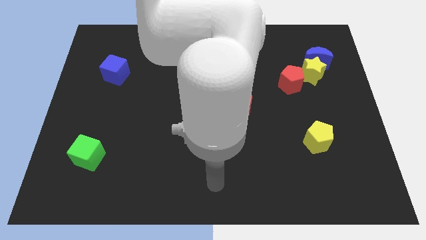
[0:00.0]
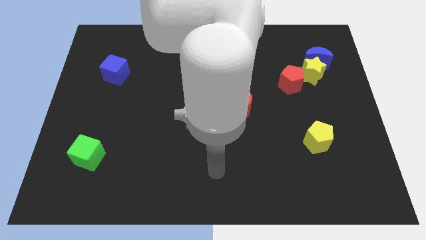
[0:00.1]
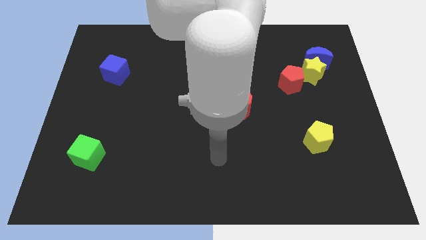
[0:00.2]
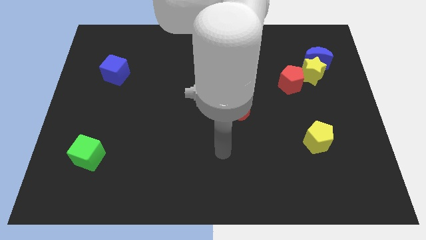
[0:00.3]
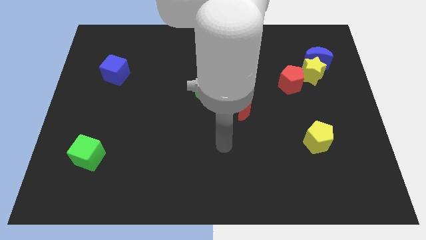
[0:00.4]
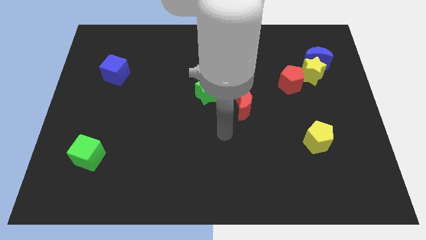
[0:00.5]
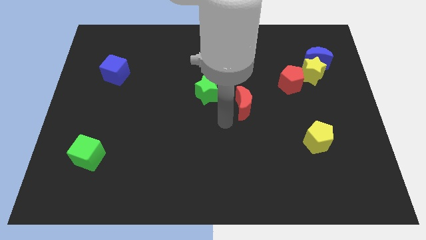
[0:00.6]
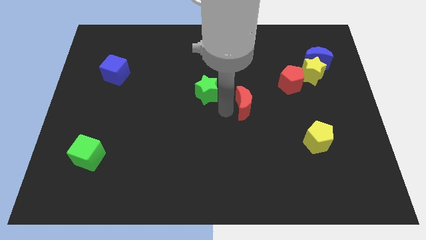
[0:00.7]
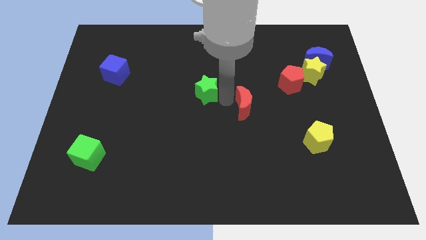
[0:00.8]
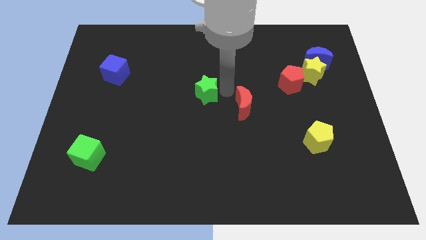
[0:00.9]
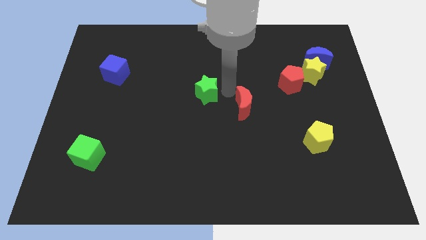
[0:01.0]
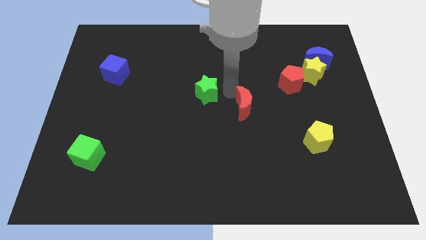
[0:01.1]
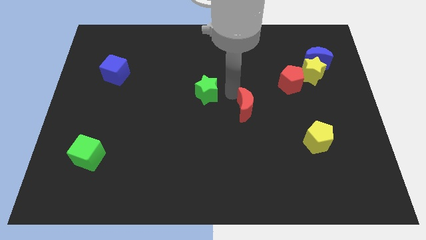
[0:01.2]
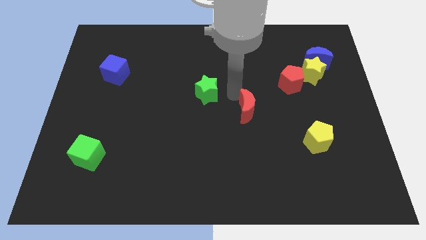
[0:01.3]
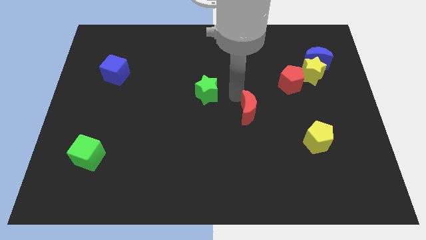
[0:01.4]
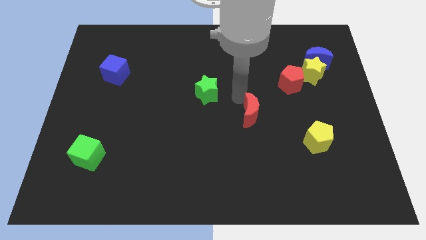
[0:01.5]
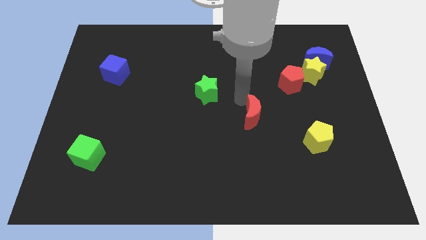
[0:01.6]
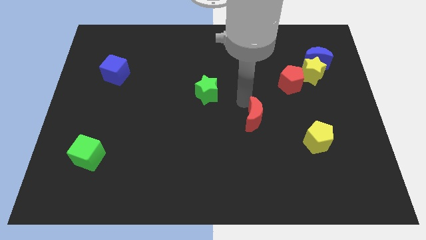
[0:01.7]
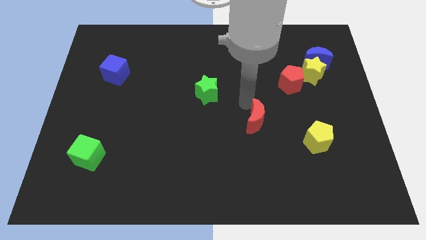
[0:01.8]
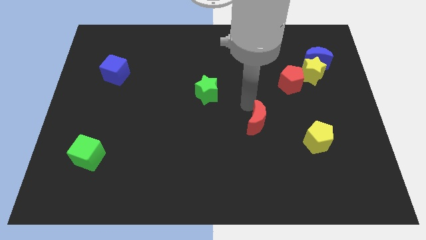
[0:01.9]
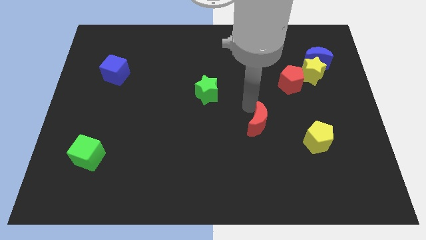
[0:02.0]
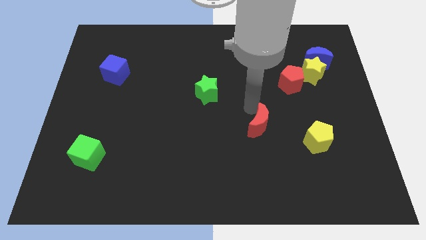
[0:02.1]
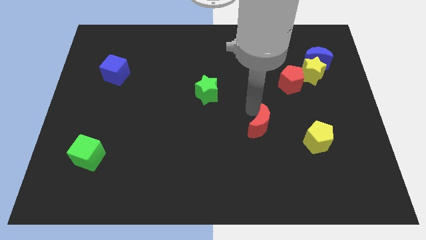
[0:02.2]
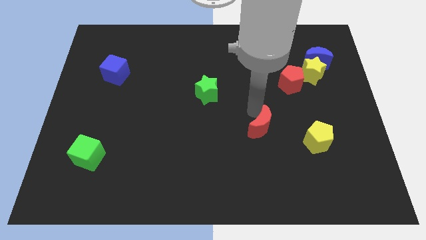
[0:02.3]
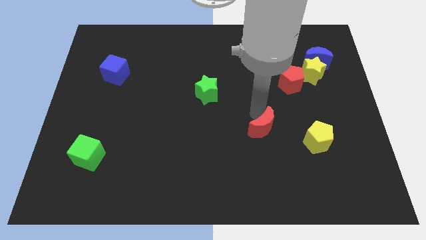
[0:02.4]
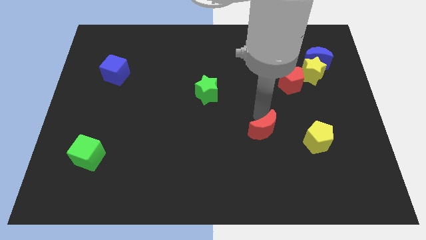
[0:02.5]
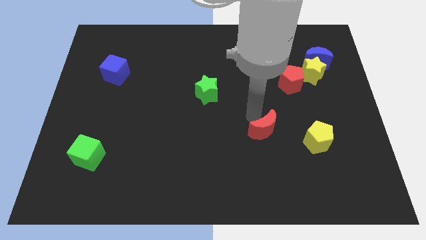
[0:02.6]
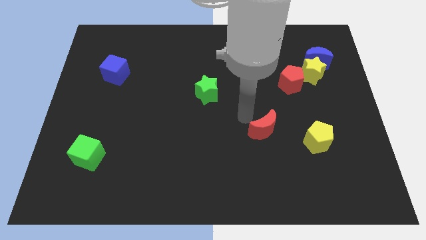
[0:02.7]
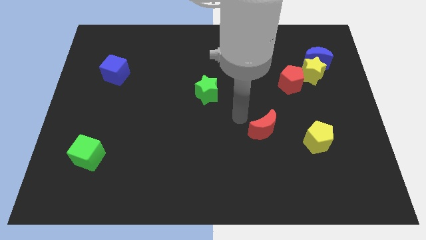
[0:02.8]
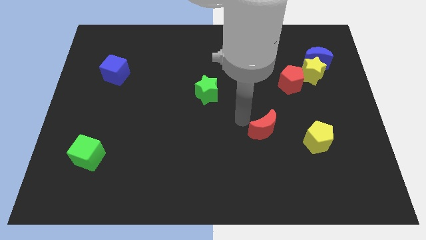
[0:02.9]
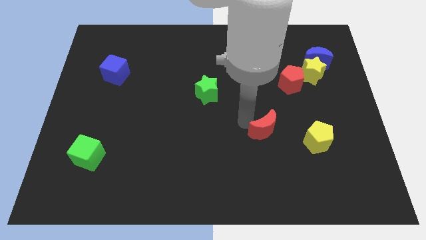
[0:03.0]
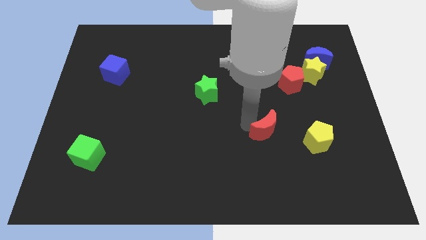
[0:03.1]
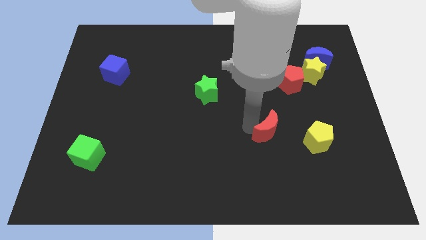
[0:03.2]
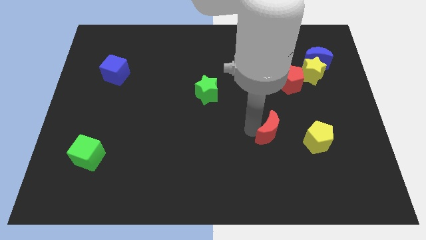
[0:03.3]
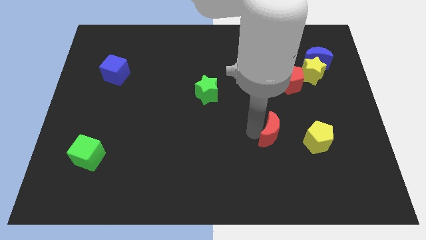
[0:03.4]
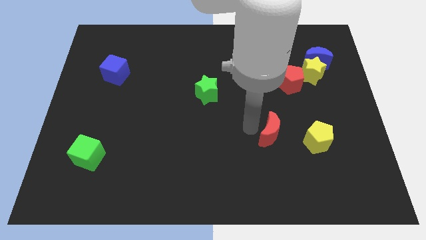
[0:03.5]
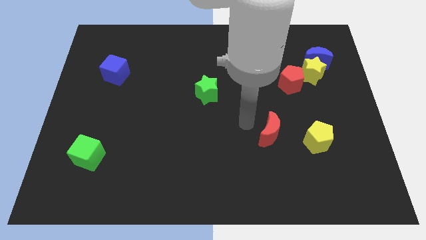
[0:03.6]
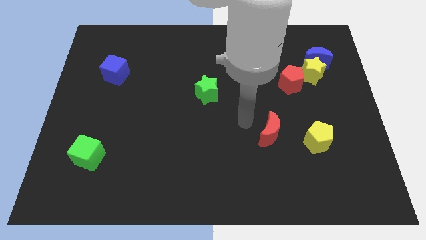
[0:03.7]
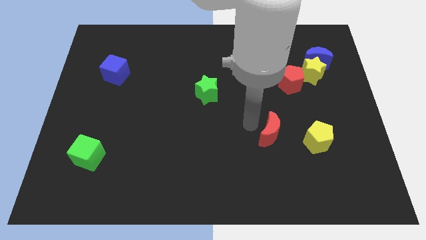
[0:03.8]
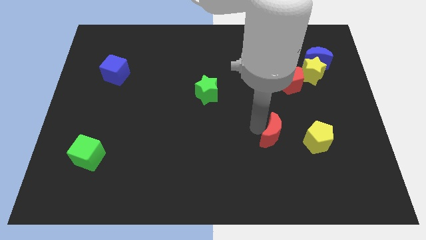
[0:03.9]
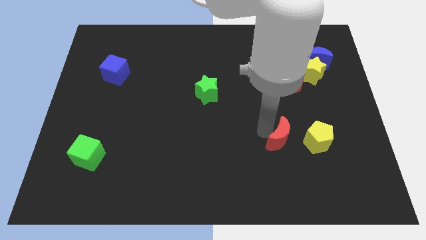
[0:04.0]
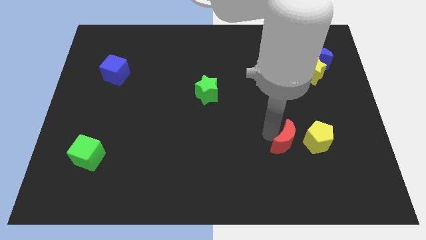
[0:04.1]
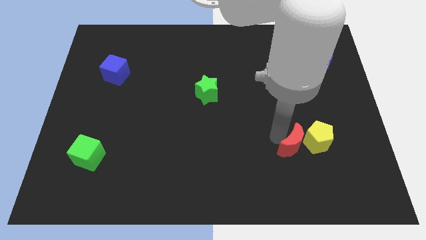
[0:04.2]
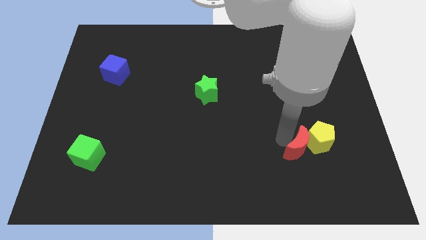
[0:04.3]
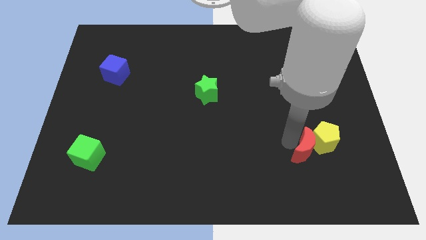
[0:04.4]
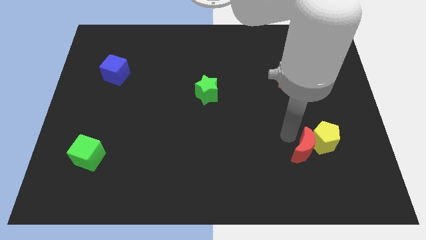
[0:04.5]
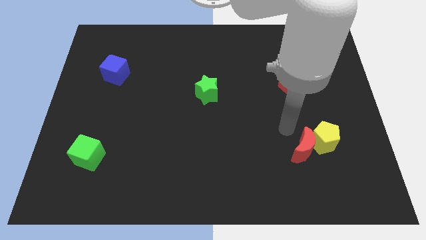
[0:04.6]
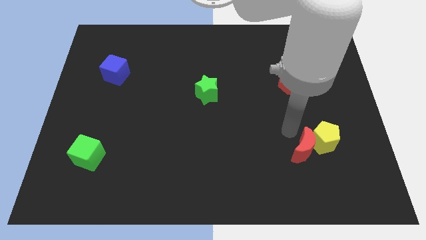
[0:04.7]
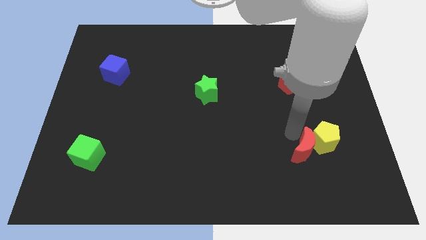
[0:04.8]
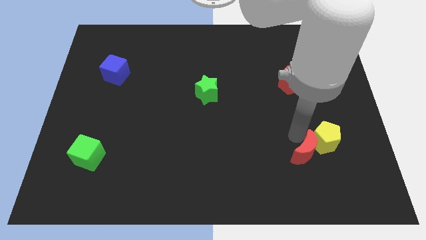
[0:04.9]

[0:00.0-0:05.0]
slide the red moon to the bottom of the yellow pentagon

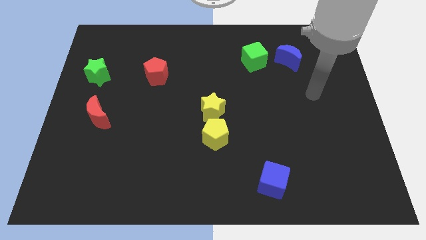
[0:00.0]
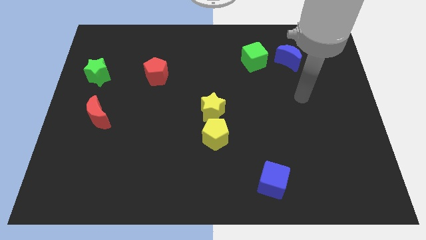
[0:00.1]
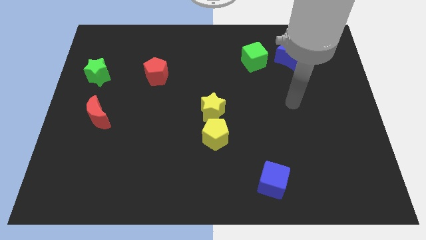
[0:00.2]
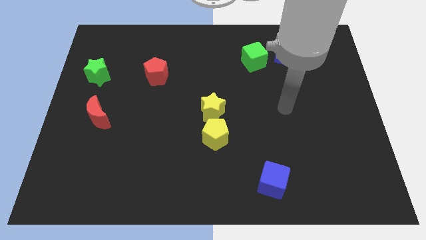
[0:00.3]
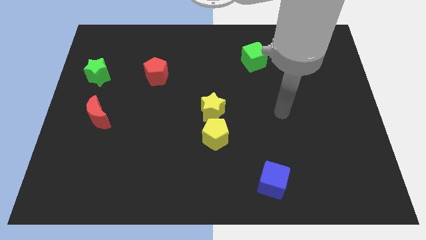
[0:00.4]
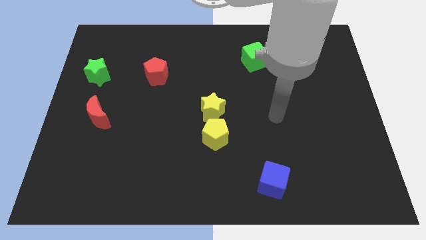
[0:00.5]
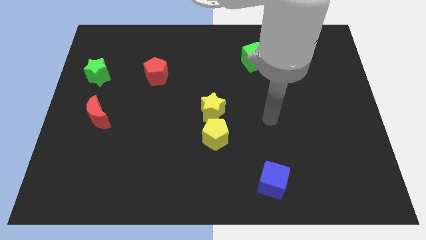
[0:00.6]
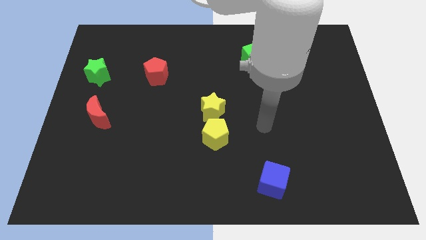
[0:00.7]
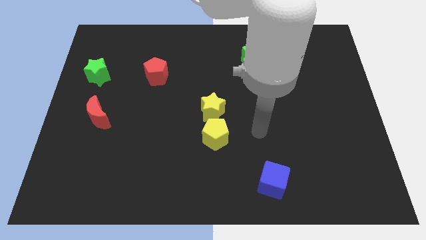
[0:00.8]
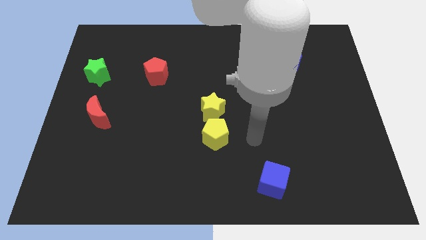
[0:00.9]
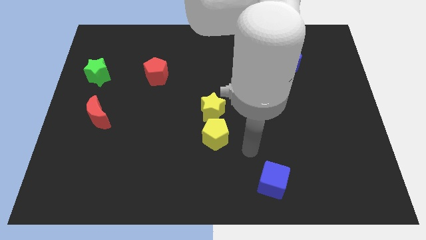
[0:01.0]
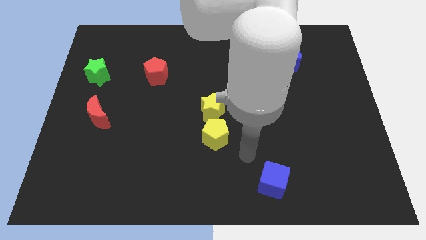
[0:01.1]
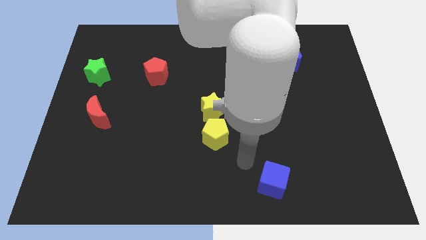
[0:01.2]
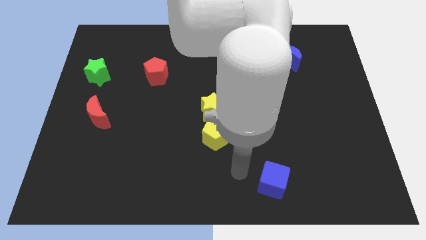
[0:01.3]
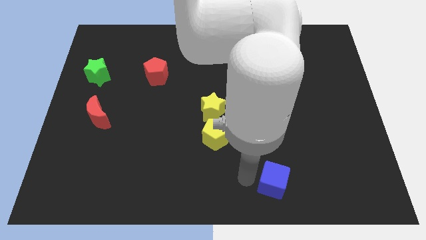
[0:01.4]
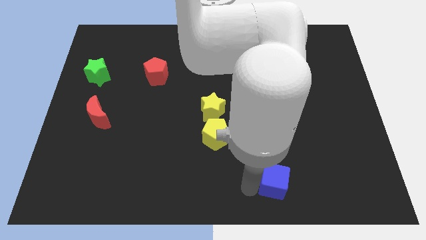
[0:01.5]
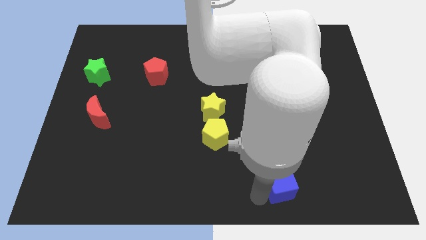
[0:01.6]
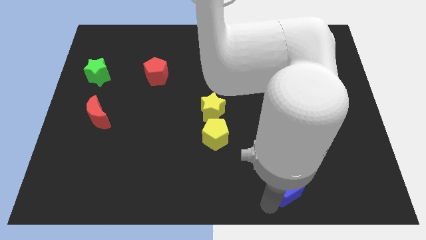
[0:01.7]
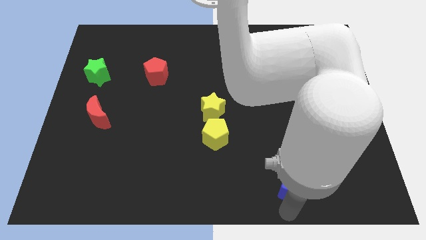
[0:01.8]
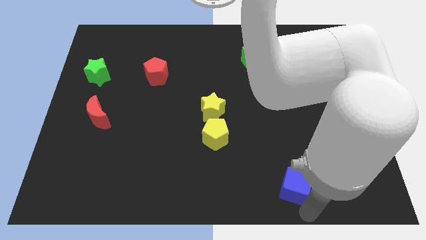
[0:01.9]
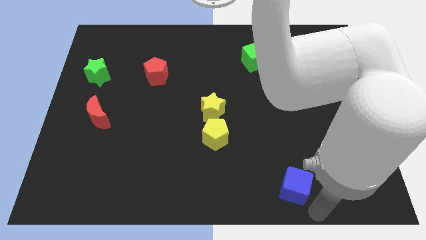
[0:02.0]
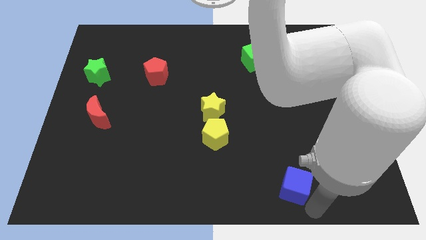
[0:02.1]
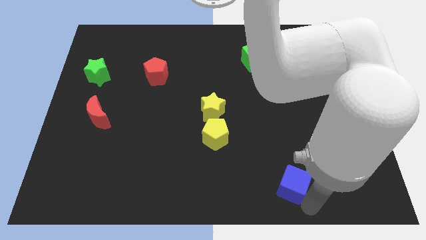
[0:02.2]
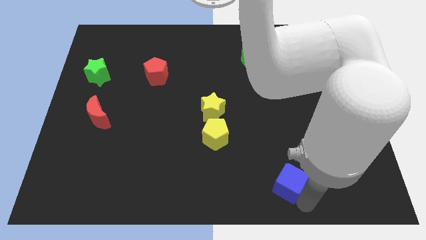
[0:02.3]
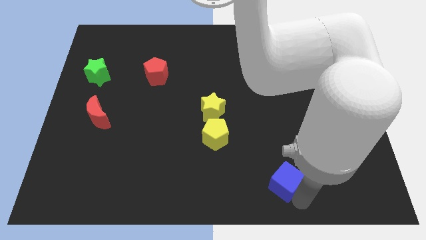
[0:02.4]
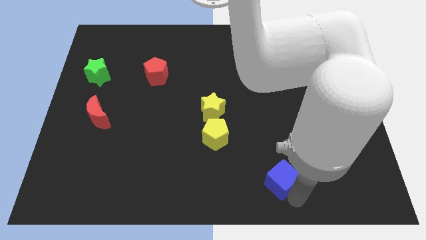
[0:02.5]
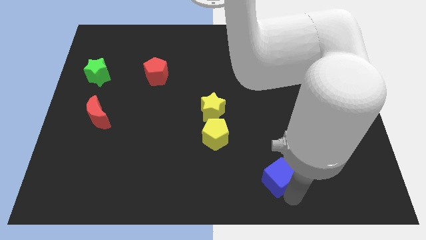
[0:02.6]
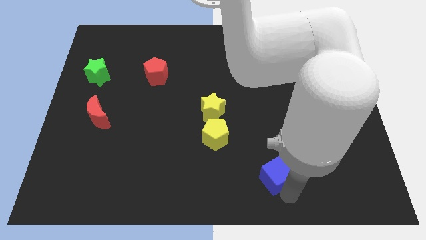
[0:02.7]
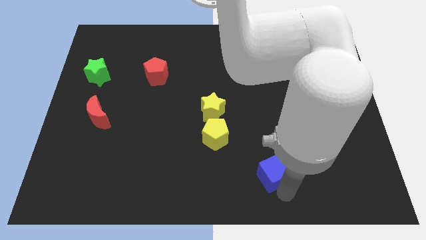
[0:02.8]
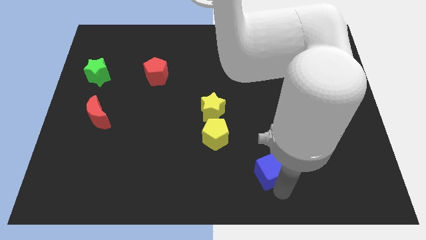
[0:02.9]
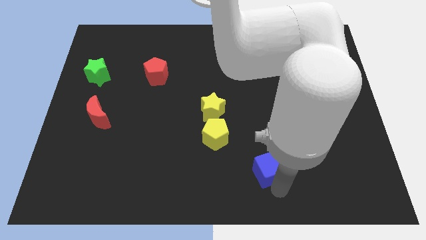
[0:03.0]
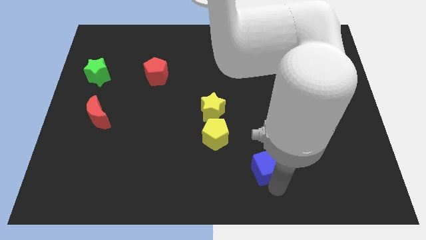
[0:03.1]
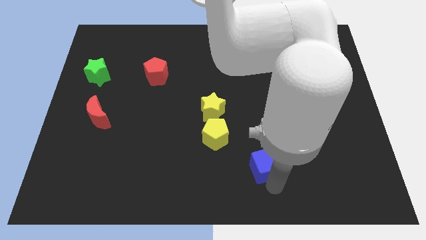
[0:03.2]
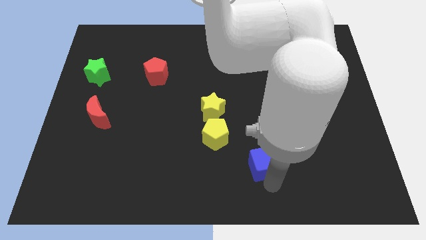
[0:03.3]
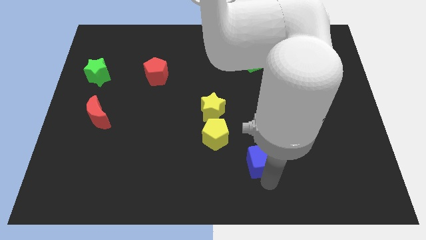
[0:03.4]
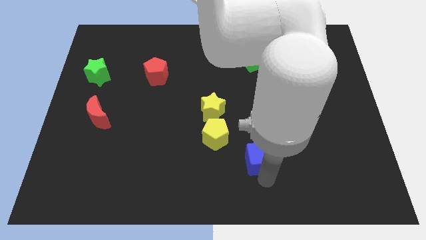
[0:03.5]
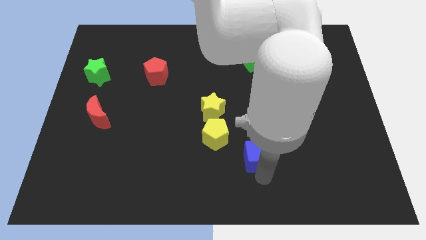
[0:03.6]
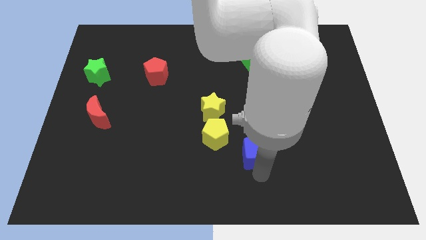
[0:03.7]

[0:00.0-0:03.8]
slide the blue cube to the right of the yellow pentagon
